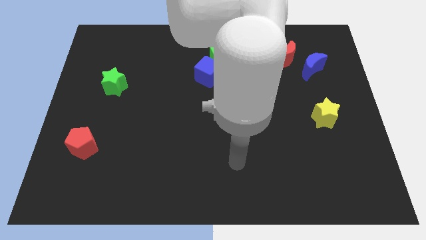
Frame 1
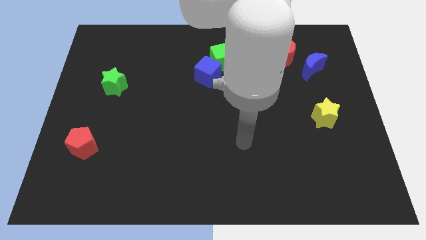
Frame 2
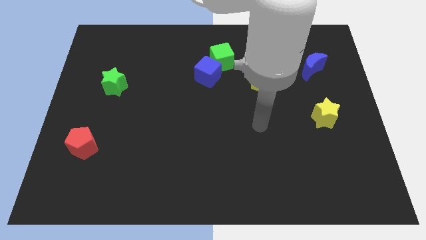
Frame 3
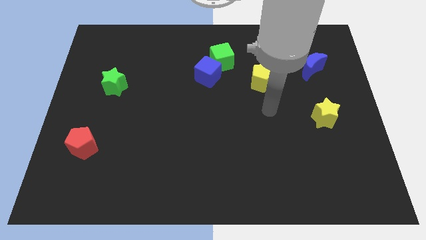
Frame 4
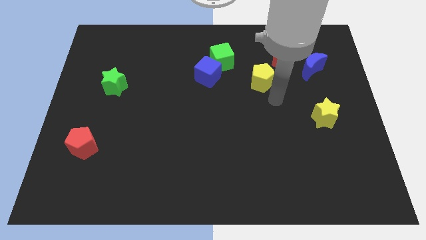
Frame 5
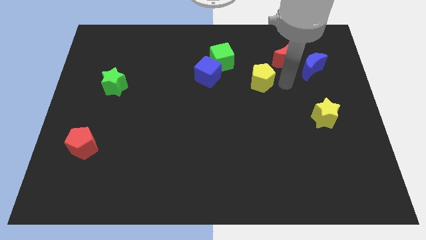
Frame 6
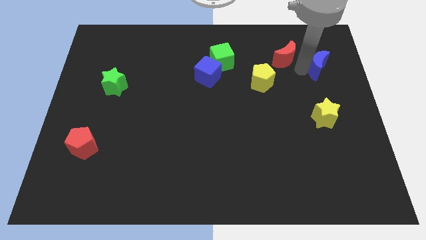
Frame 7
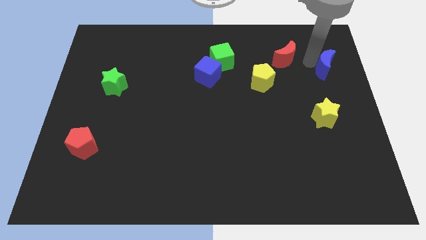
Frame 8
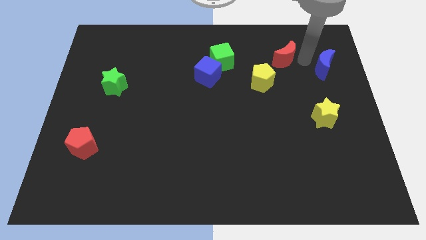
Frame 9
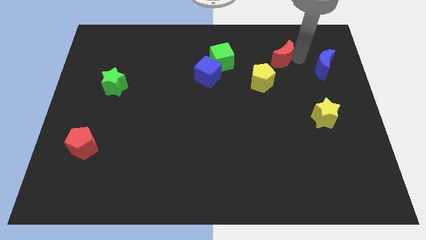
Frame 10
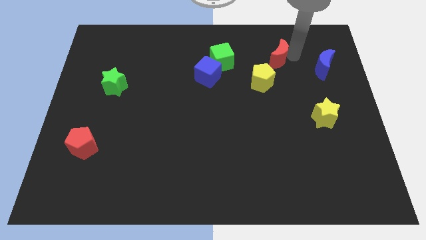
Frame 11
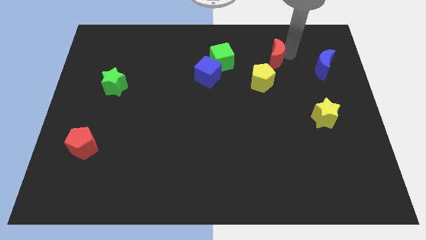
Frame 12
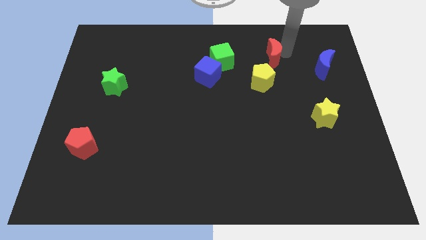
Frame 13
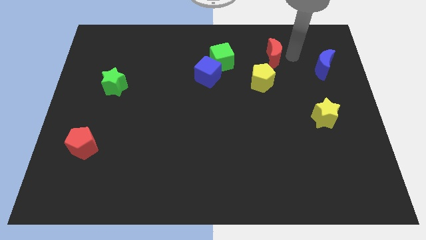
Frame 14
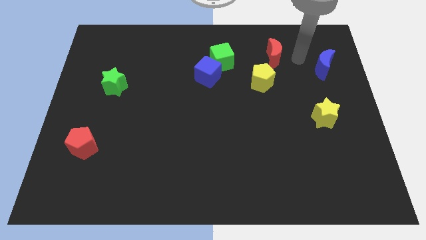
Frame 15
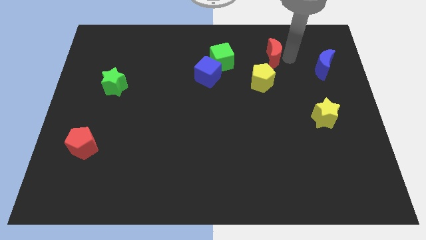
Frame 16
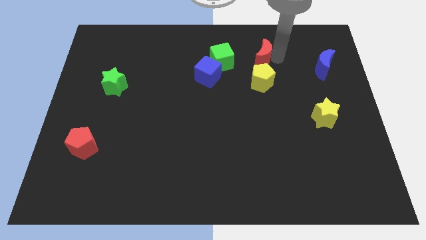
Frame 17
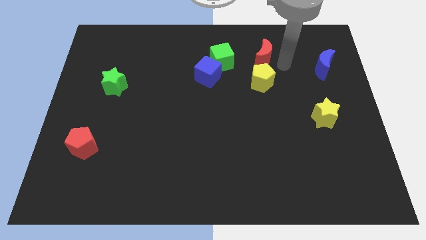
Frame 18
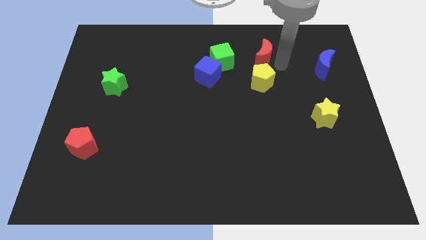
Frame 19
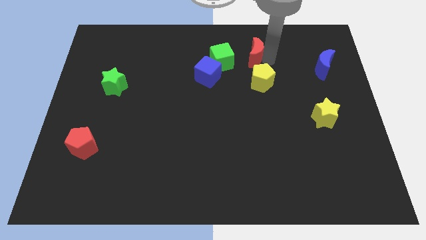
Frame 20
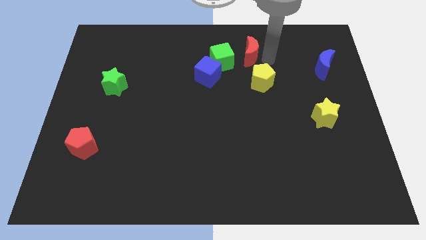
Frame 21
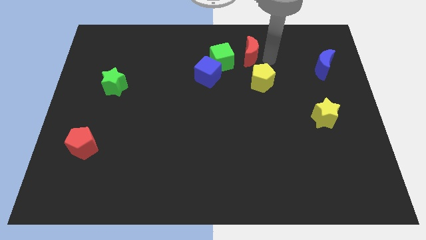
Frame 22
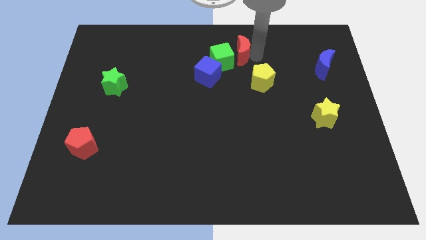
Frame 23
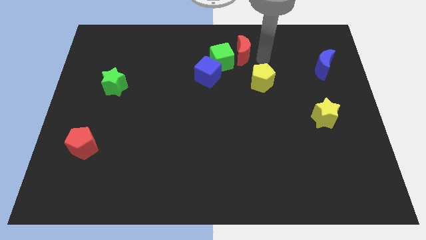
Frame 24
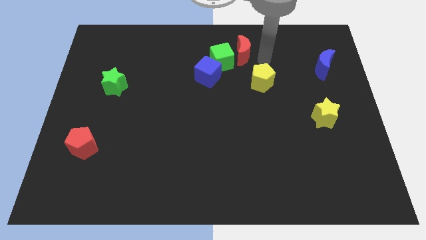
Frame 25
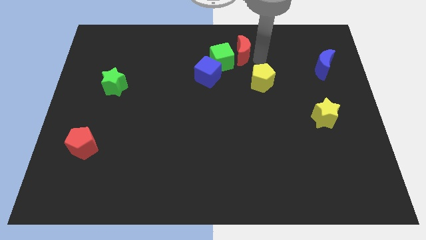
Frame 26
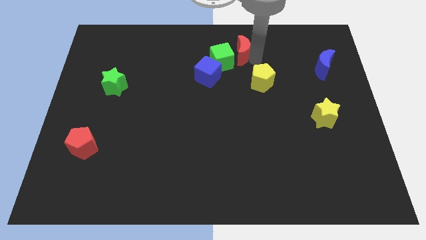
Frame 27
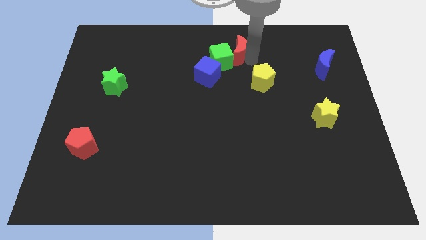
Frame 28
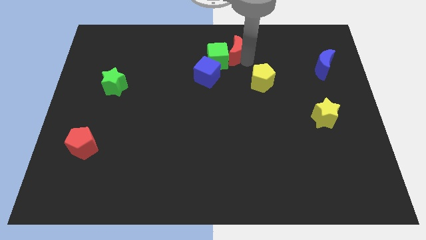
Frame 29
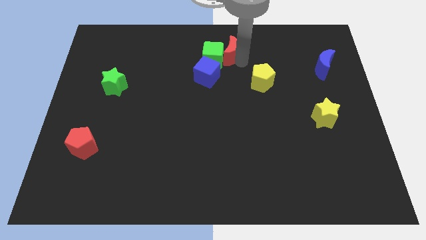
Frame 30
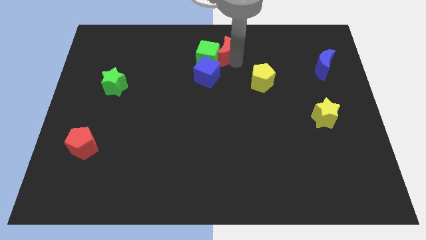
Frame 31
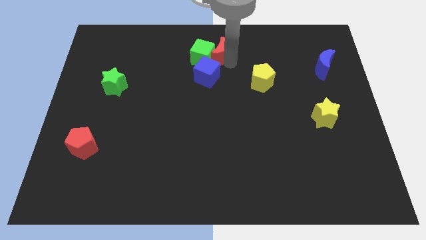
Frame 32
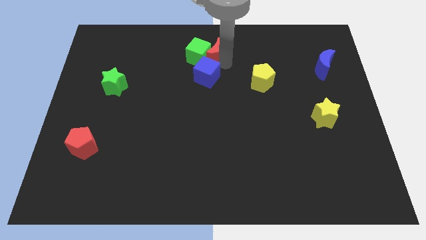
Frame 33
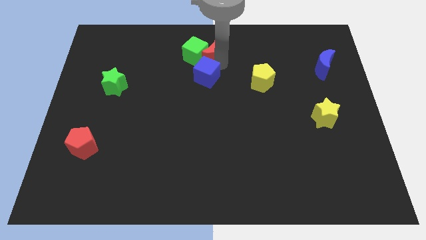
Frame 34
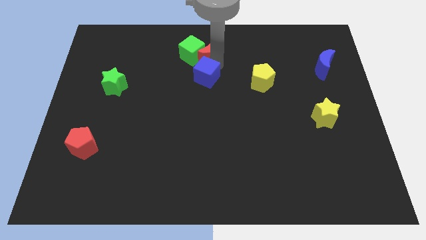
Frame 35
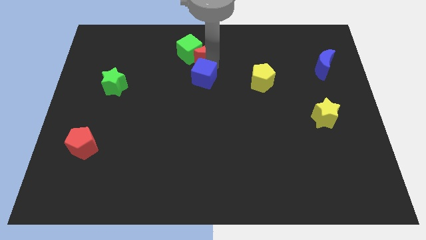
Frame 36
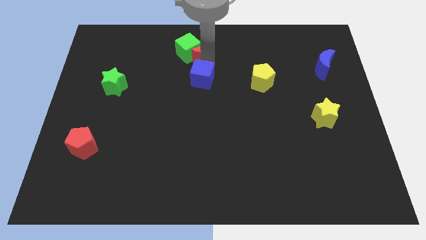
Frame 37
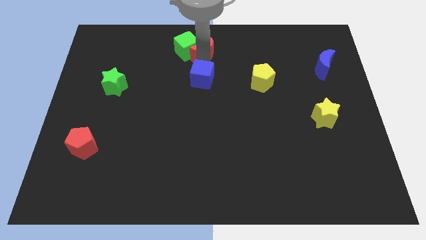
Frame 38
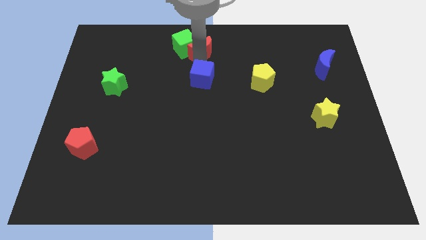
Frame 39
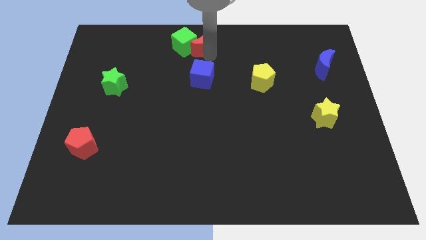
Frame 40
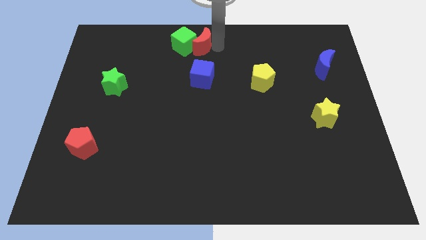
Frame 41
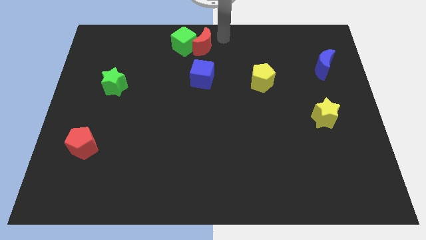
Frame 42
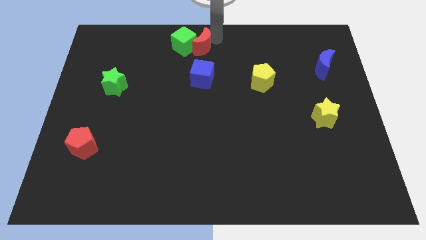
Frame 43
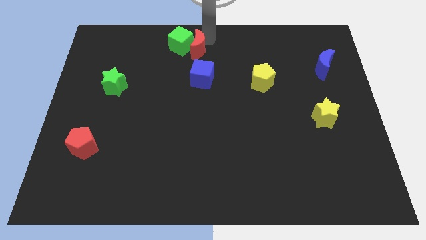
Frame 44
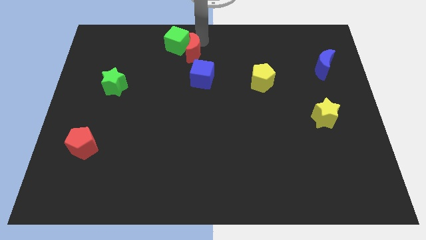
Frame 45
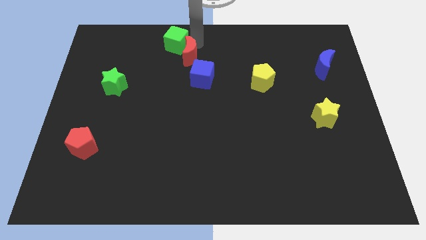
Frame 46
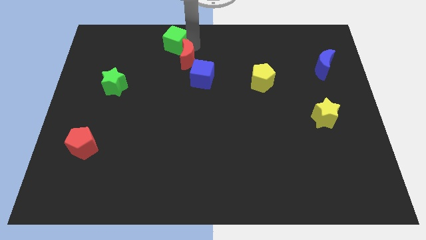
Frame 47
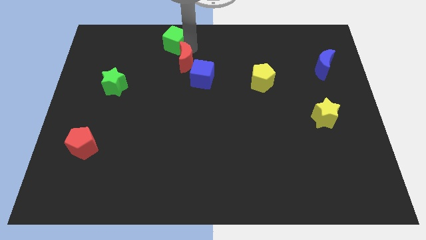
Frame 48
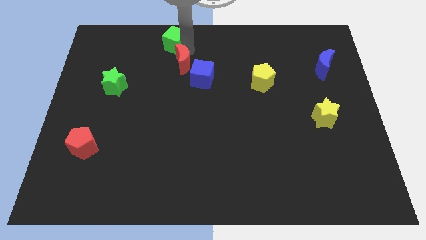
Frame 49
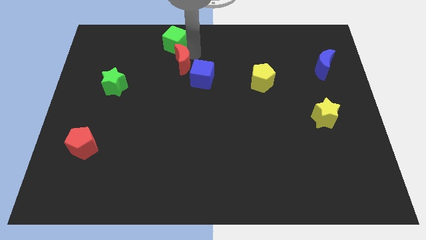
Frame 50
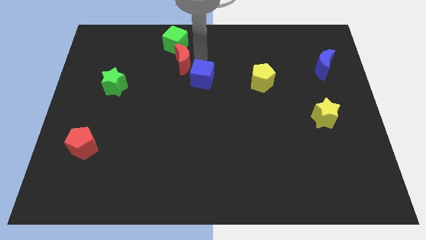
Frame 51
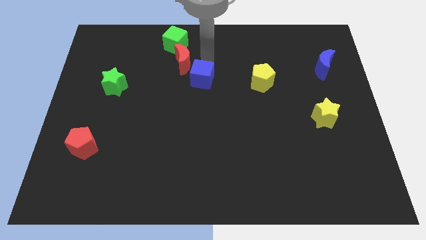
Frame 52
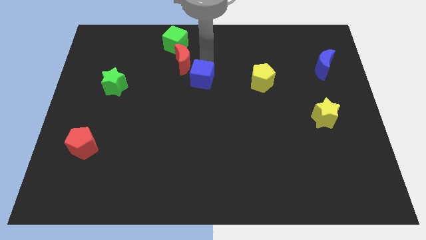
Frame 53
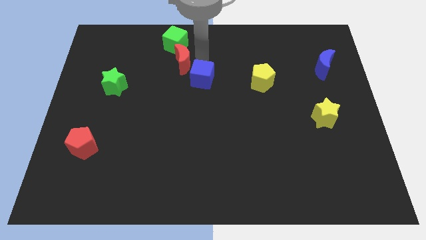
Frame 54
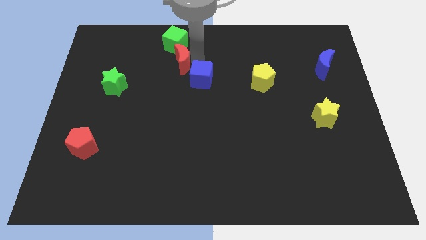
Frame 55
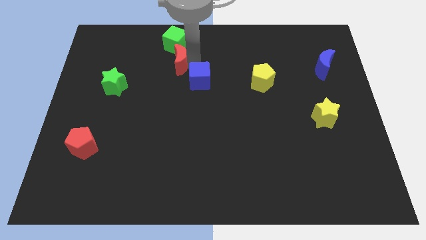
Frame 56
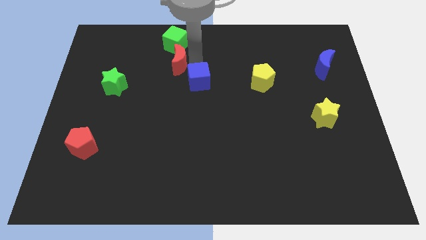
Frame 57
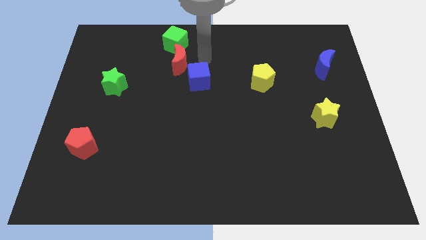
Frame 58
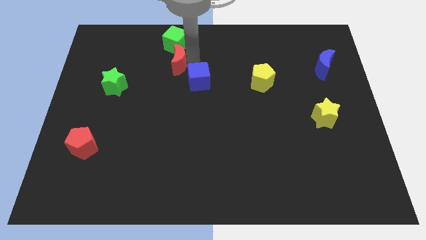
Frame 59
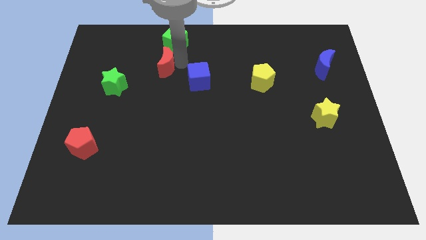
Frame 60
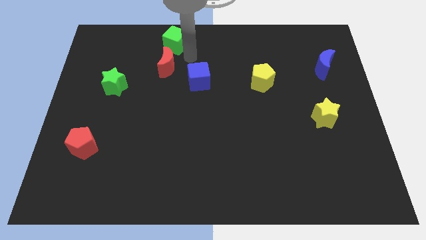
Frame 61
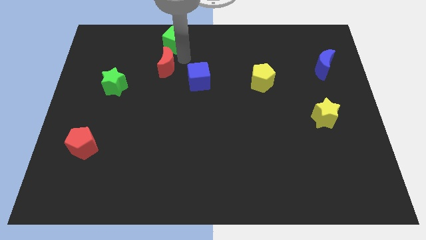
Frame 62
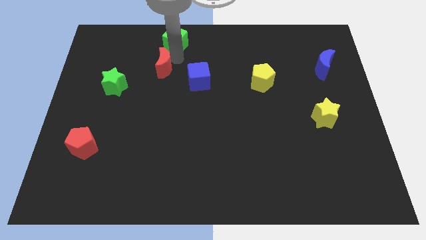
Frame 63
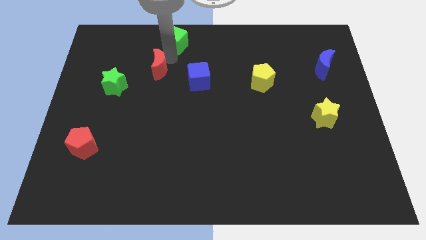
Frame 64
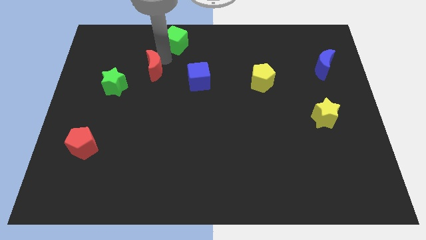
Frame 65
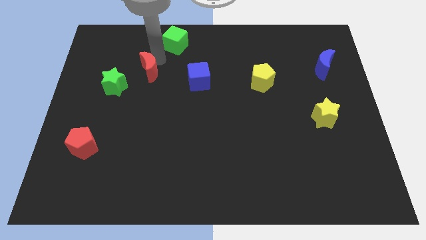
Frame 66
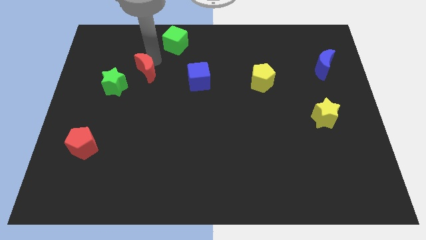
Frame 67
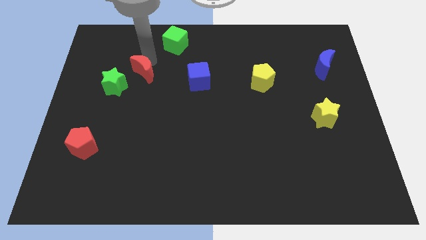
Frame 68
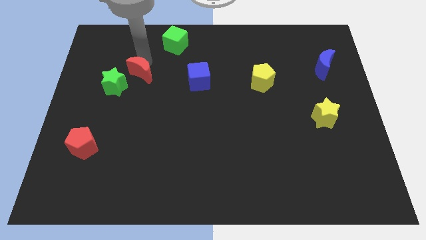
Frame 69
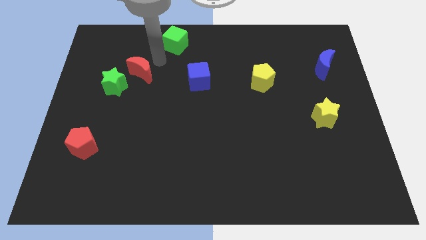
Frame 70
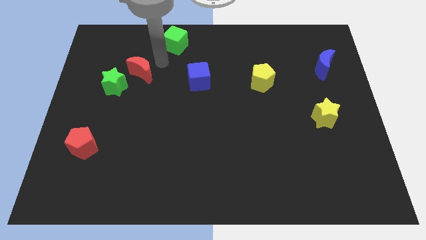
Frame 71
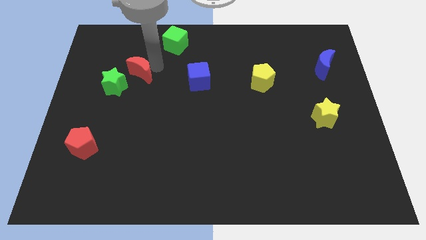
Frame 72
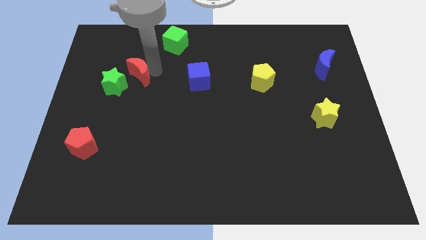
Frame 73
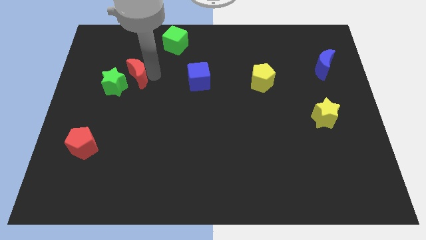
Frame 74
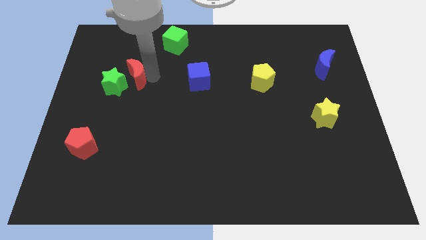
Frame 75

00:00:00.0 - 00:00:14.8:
move the red moon next to the green star
